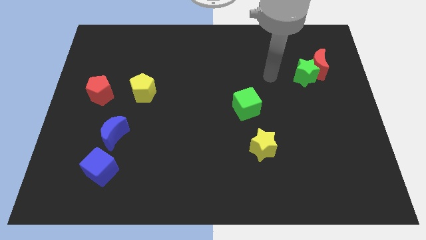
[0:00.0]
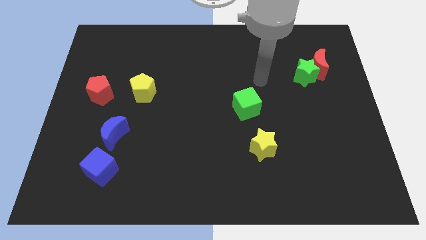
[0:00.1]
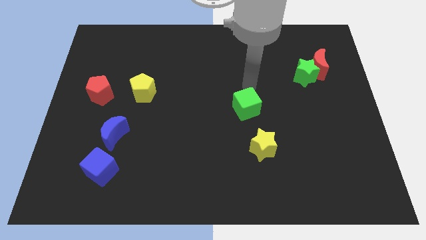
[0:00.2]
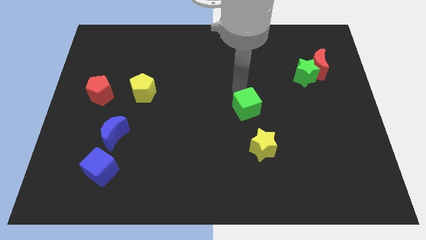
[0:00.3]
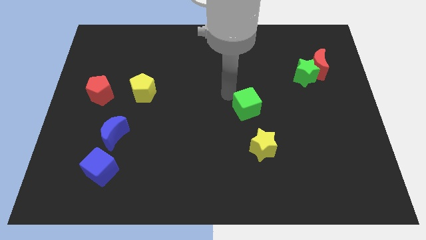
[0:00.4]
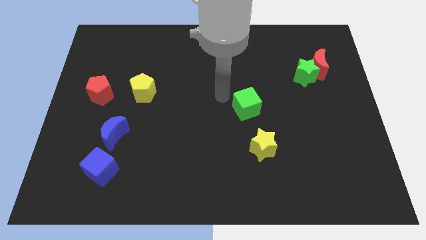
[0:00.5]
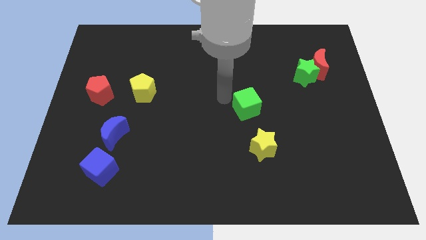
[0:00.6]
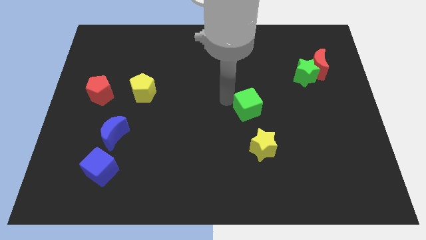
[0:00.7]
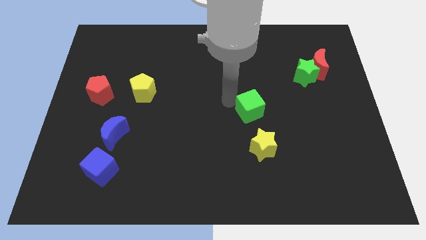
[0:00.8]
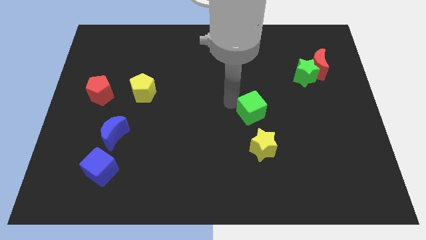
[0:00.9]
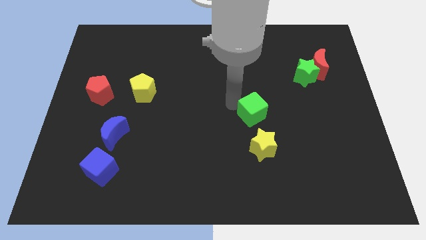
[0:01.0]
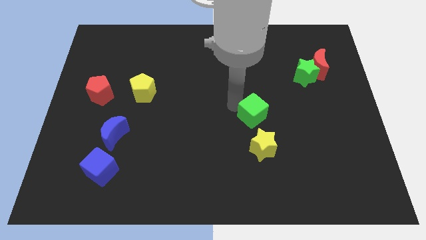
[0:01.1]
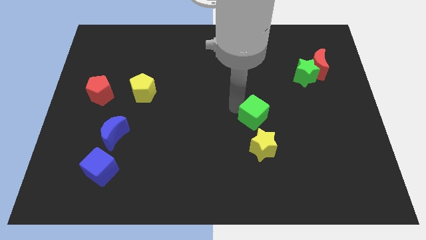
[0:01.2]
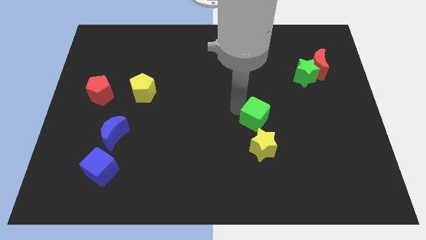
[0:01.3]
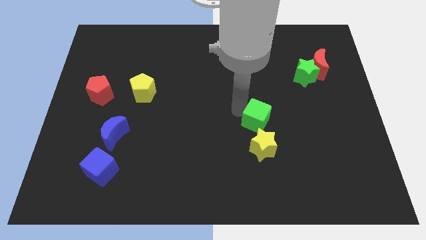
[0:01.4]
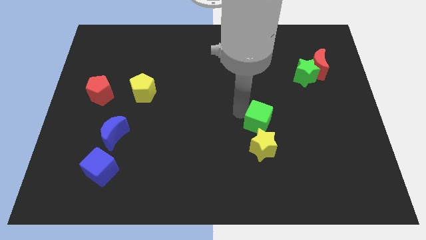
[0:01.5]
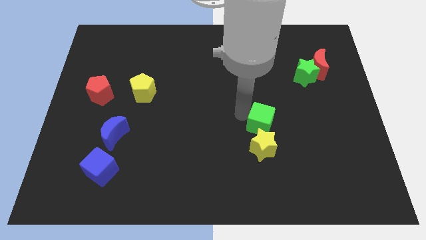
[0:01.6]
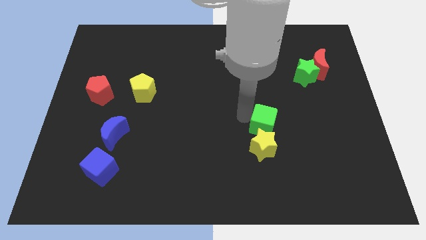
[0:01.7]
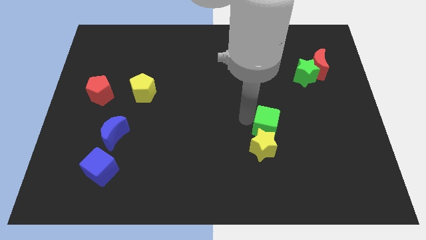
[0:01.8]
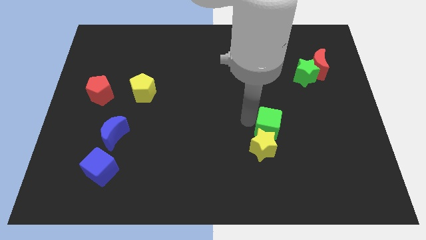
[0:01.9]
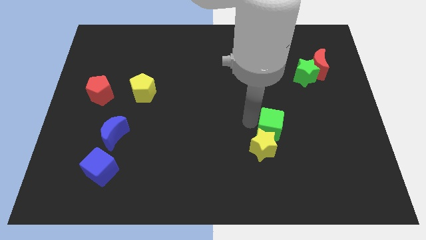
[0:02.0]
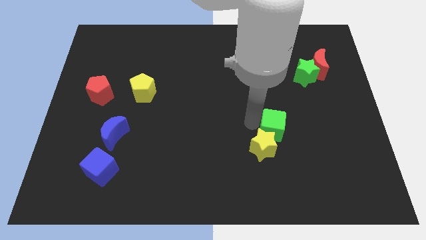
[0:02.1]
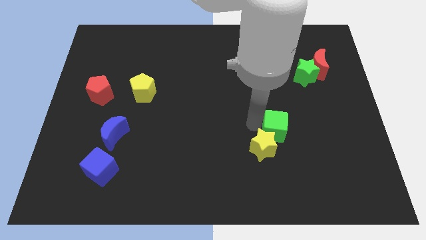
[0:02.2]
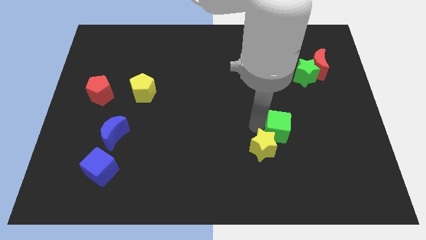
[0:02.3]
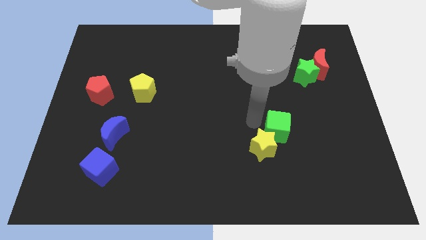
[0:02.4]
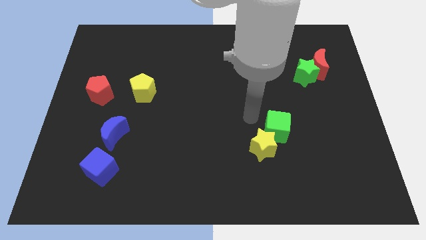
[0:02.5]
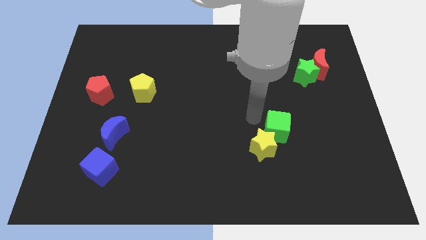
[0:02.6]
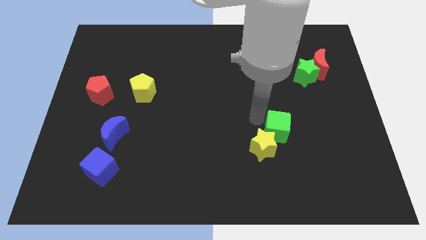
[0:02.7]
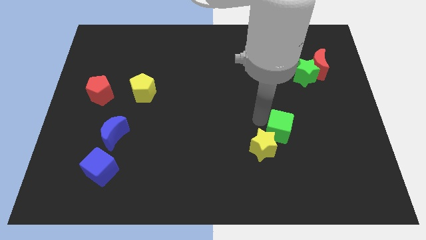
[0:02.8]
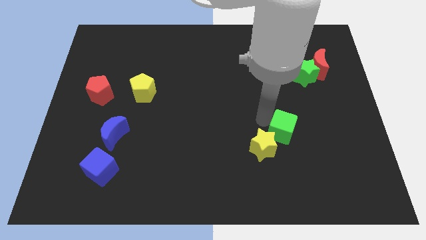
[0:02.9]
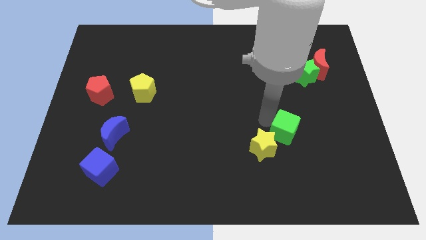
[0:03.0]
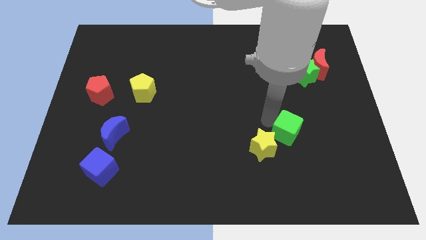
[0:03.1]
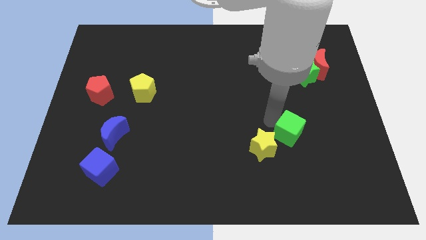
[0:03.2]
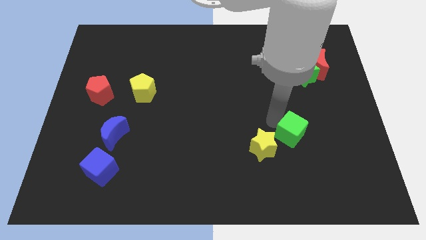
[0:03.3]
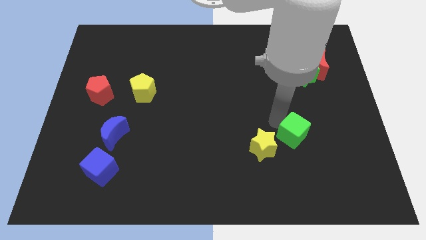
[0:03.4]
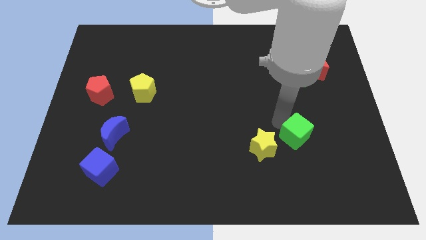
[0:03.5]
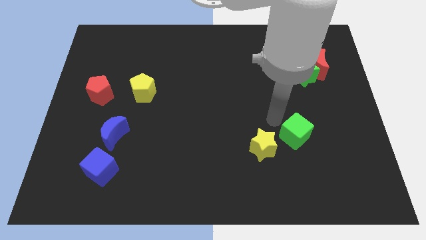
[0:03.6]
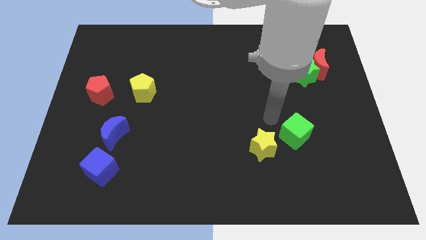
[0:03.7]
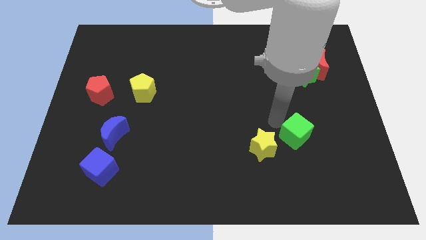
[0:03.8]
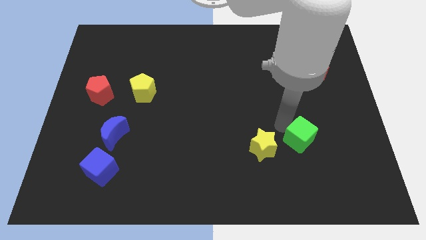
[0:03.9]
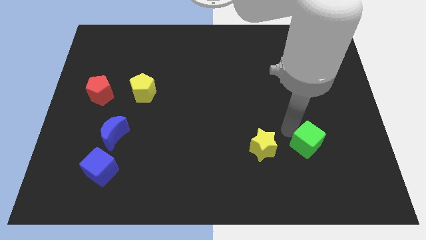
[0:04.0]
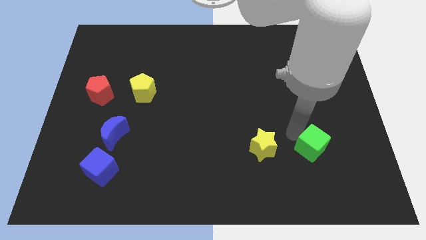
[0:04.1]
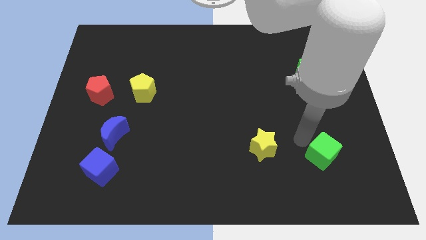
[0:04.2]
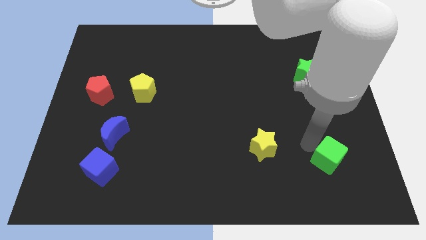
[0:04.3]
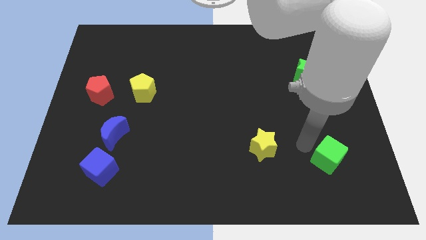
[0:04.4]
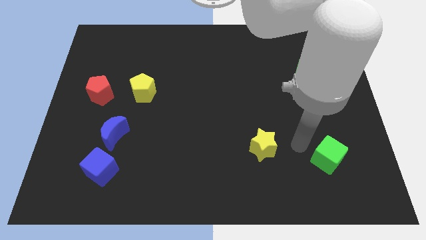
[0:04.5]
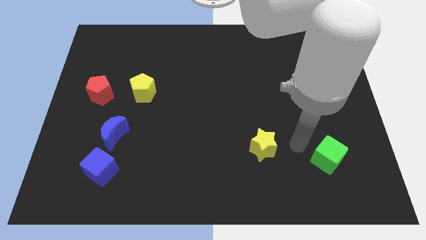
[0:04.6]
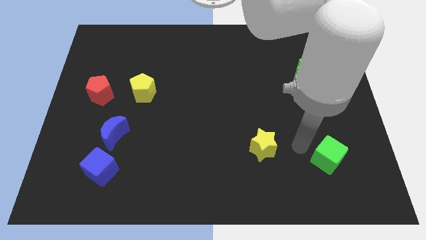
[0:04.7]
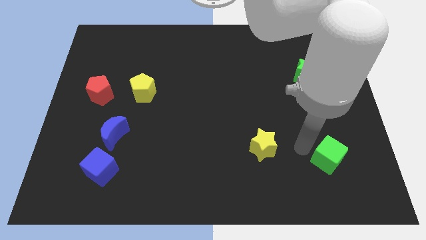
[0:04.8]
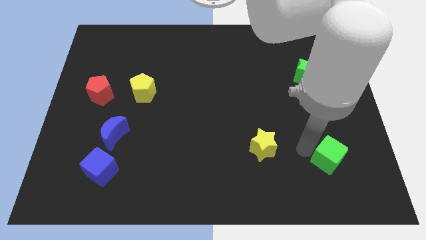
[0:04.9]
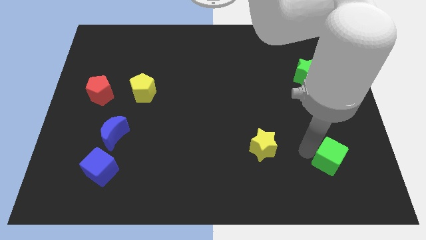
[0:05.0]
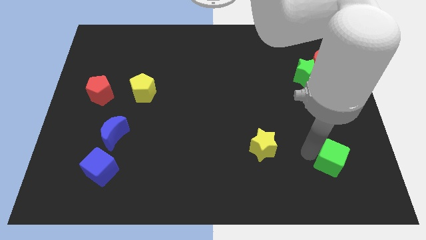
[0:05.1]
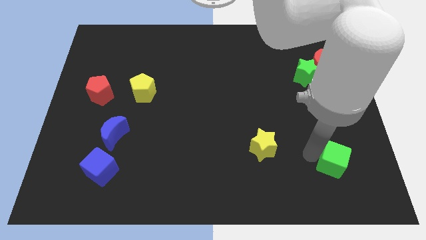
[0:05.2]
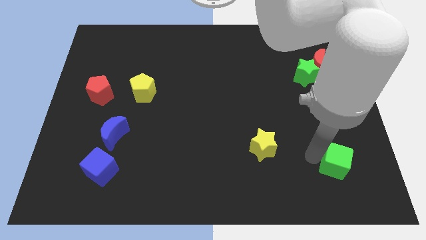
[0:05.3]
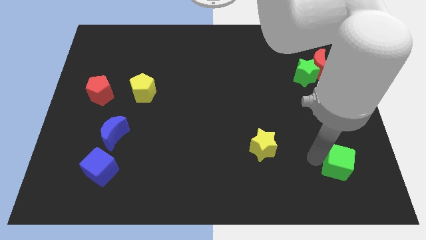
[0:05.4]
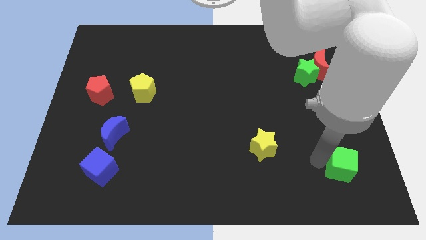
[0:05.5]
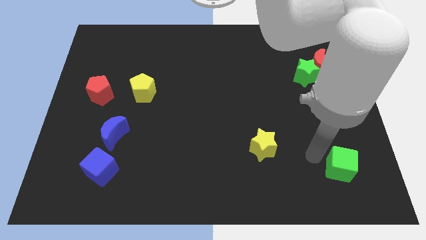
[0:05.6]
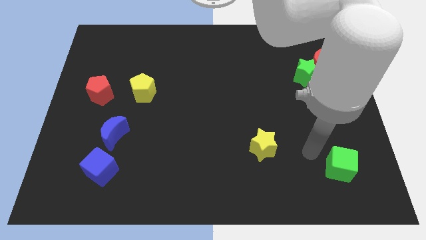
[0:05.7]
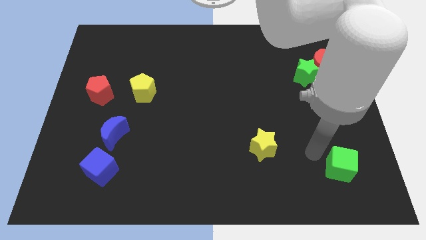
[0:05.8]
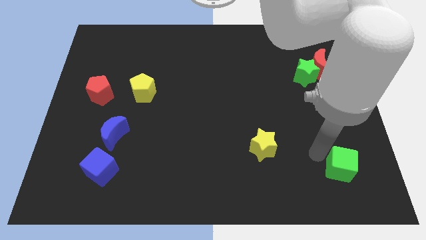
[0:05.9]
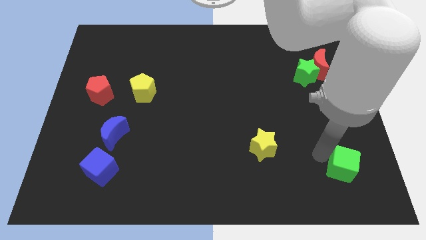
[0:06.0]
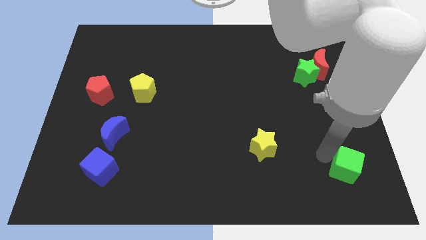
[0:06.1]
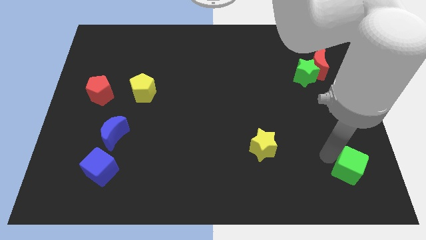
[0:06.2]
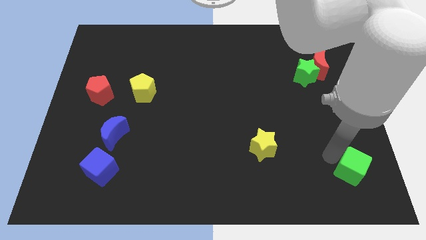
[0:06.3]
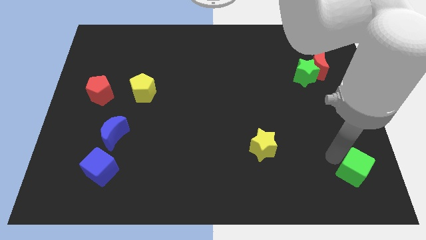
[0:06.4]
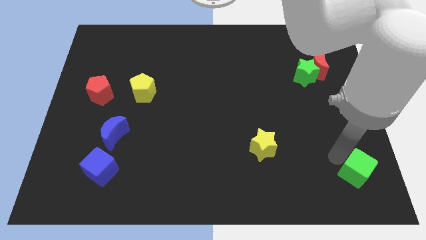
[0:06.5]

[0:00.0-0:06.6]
put the green cube to the bottom right of the board
